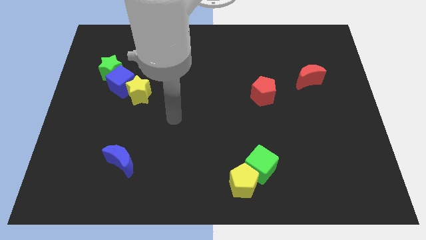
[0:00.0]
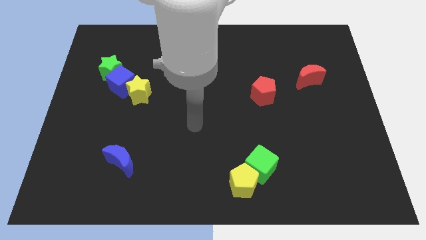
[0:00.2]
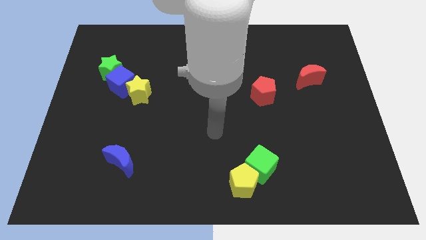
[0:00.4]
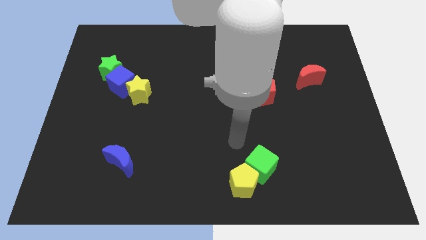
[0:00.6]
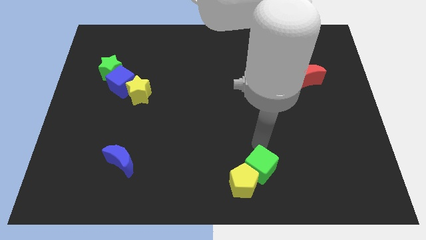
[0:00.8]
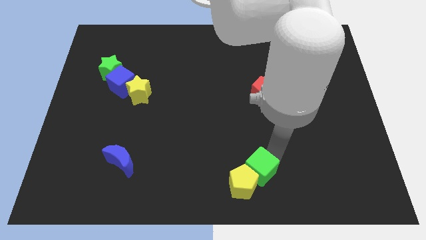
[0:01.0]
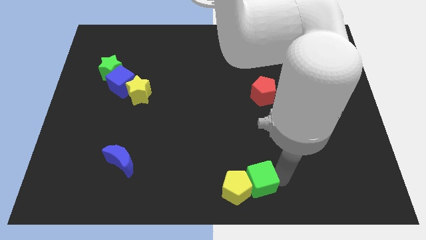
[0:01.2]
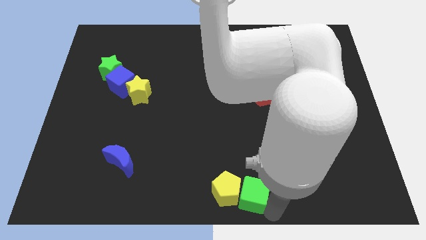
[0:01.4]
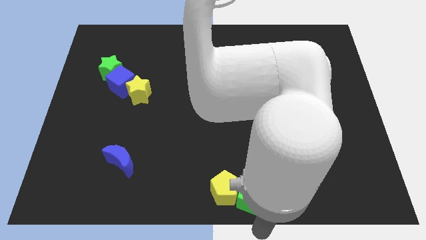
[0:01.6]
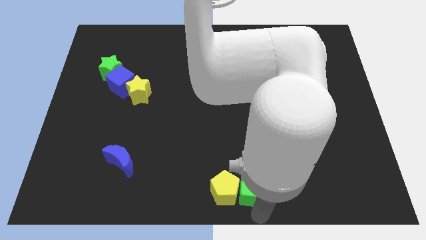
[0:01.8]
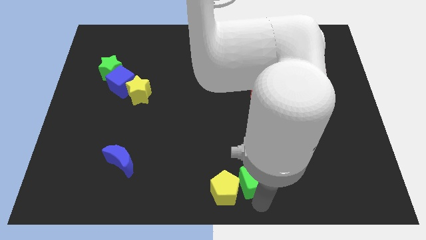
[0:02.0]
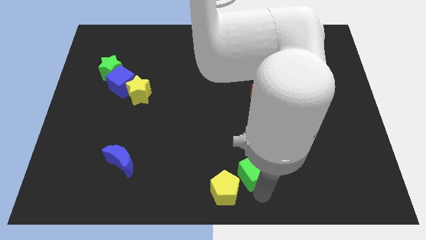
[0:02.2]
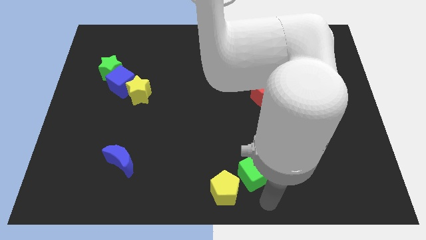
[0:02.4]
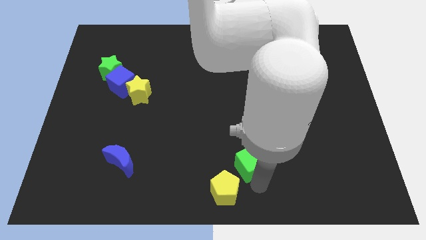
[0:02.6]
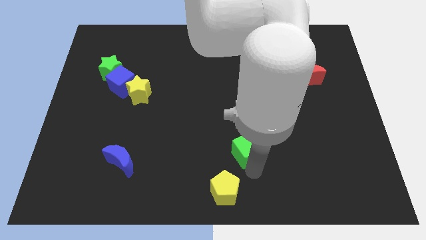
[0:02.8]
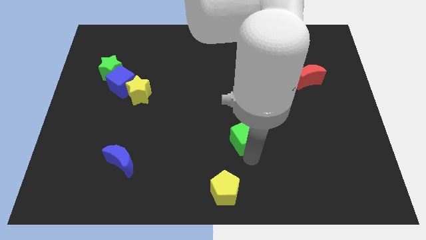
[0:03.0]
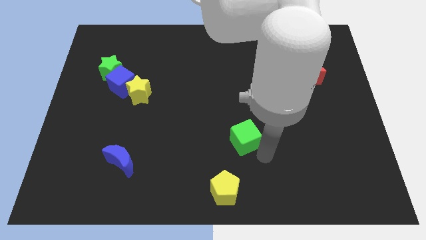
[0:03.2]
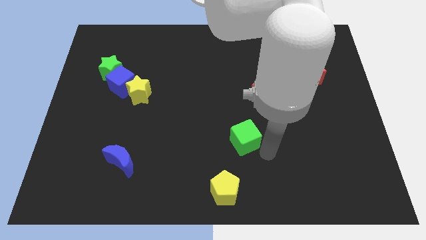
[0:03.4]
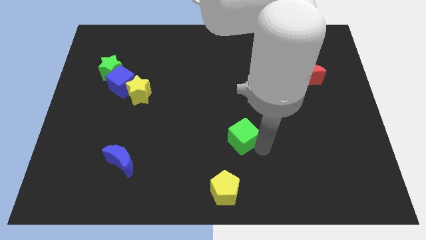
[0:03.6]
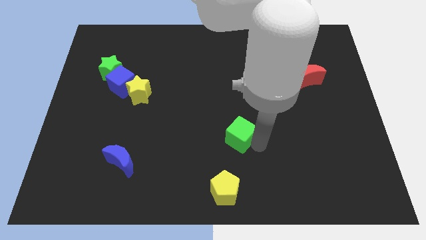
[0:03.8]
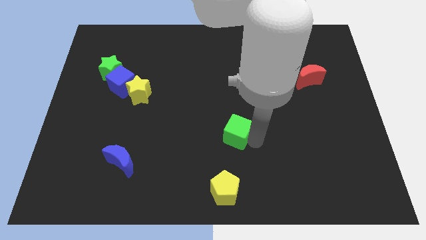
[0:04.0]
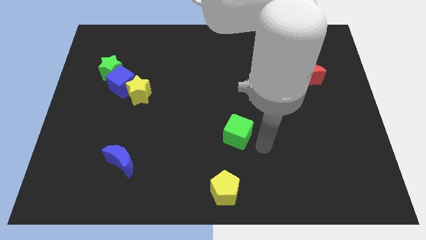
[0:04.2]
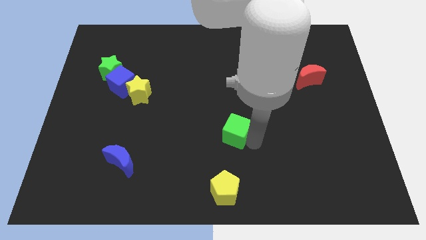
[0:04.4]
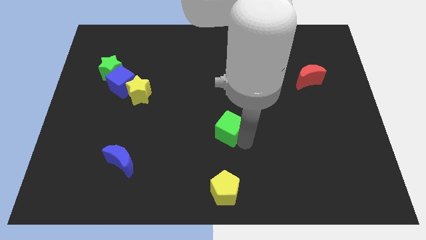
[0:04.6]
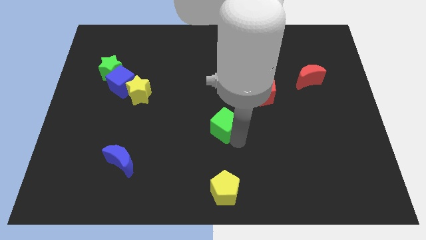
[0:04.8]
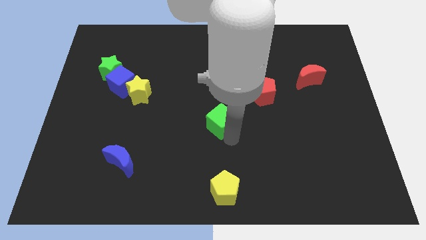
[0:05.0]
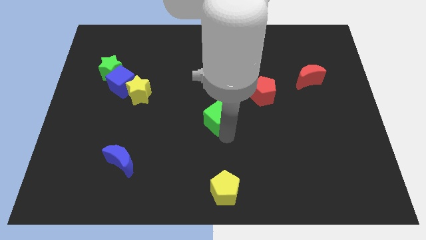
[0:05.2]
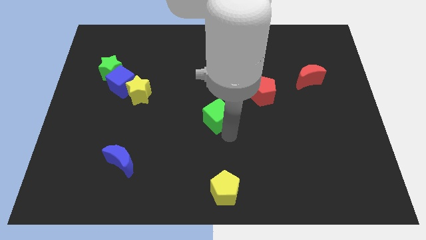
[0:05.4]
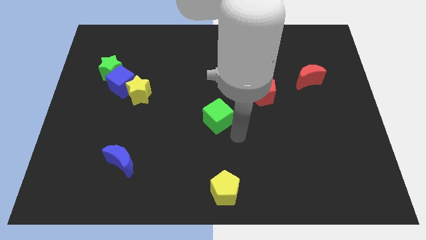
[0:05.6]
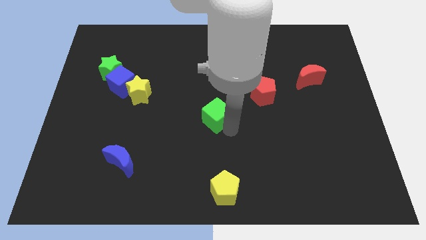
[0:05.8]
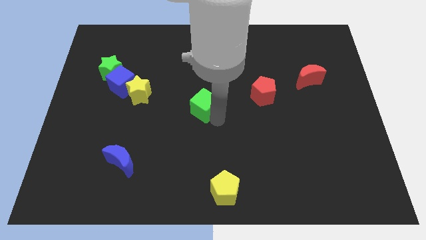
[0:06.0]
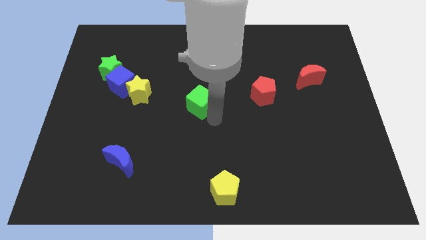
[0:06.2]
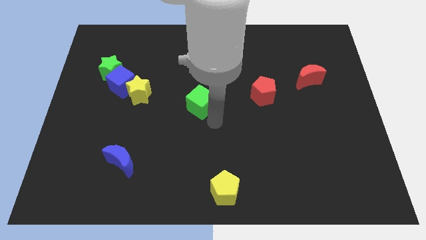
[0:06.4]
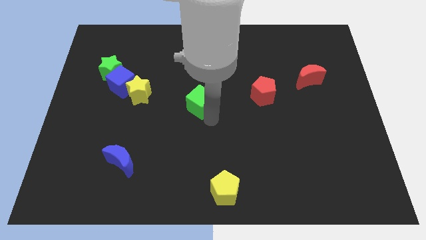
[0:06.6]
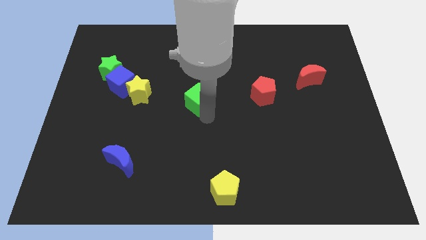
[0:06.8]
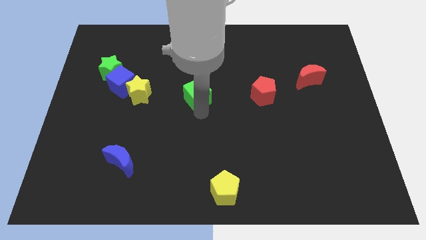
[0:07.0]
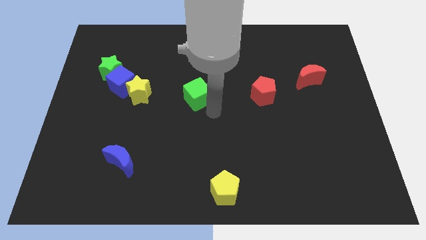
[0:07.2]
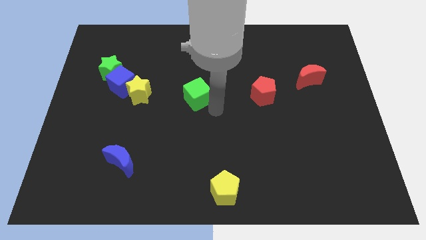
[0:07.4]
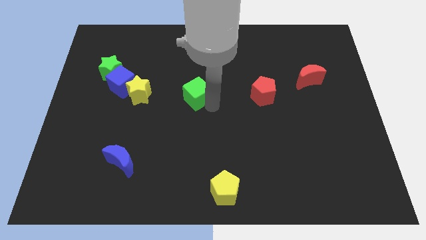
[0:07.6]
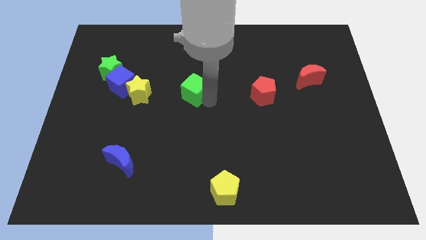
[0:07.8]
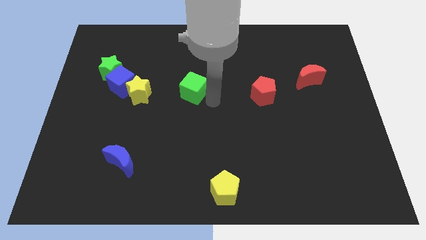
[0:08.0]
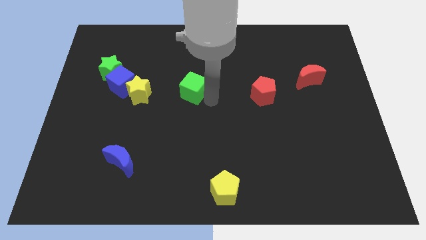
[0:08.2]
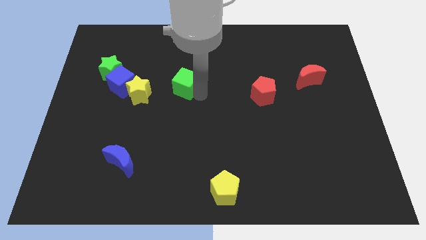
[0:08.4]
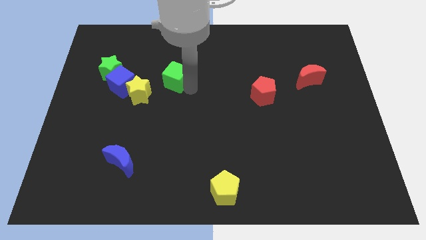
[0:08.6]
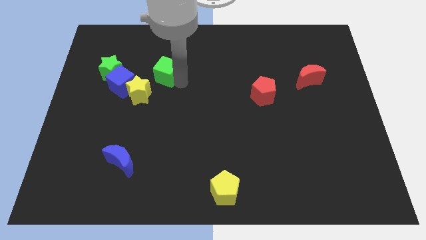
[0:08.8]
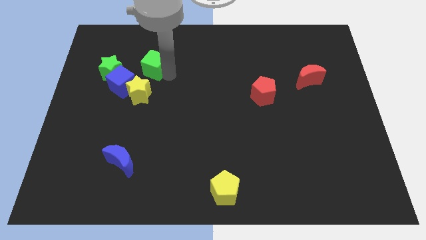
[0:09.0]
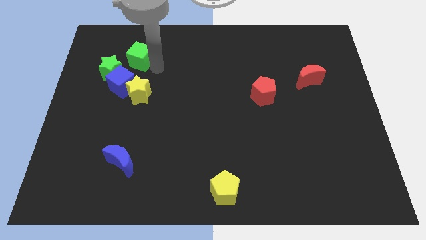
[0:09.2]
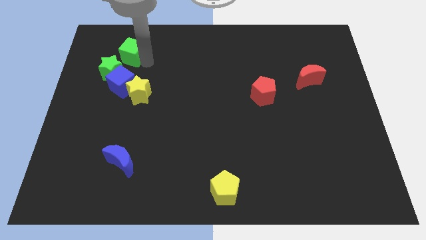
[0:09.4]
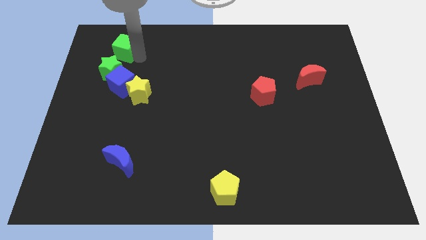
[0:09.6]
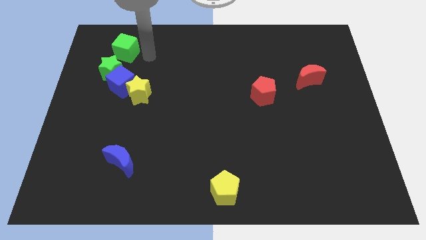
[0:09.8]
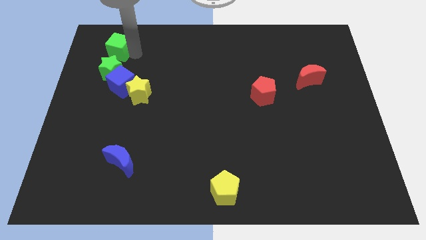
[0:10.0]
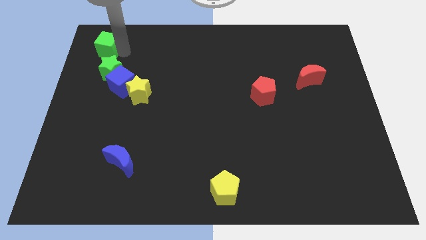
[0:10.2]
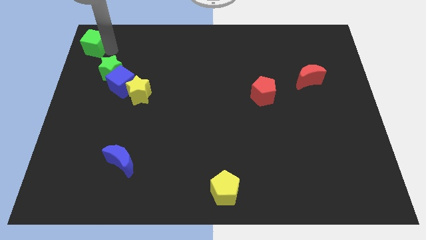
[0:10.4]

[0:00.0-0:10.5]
move the green cube to the top left

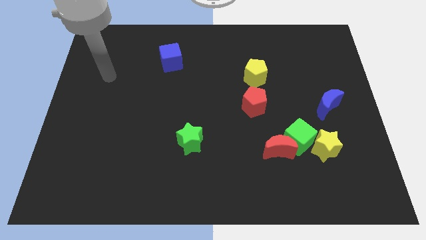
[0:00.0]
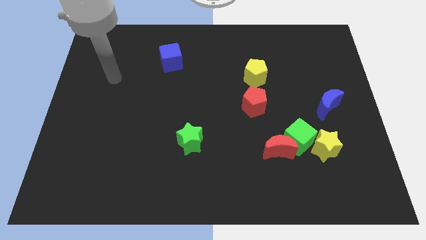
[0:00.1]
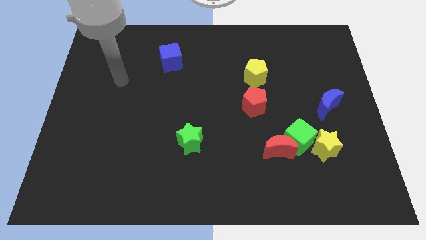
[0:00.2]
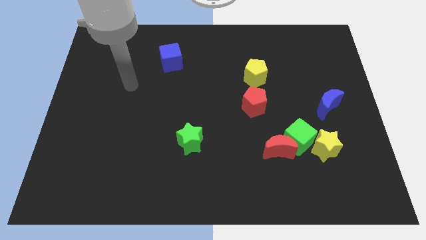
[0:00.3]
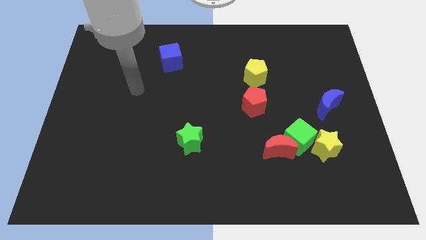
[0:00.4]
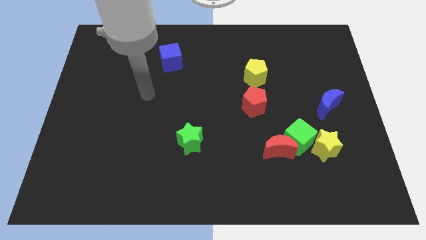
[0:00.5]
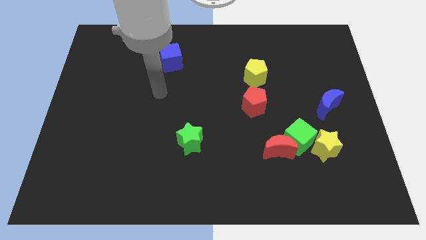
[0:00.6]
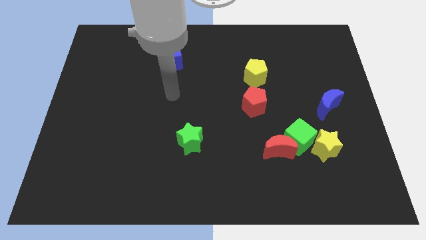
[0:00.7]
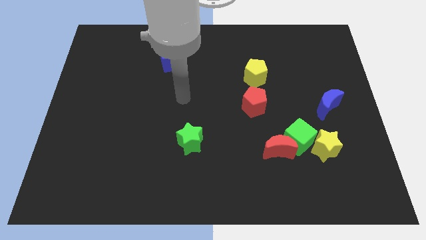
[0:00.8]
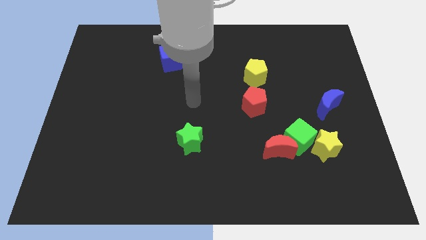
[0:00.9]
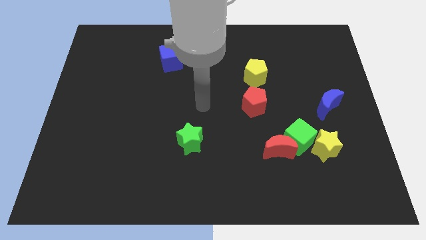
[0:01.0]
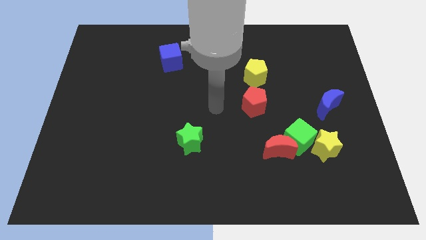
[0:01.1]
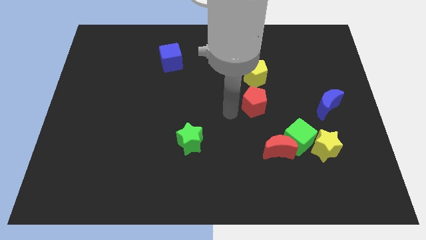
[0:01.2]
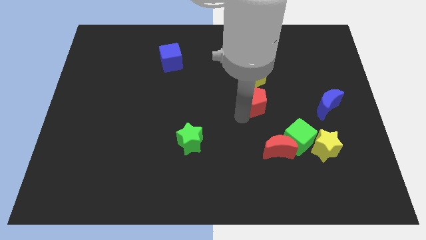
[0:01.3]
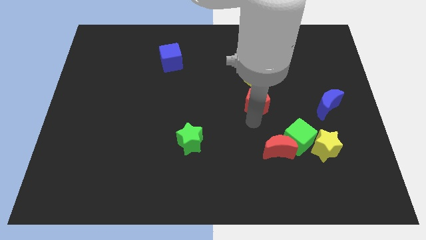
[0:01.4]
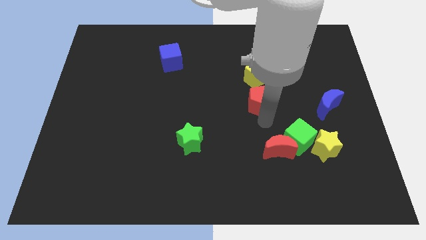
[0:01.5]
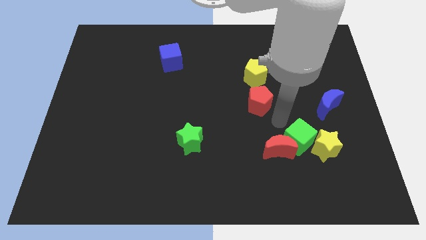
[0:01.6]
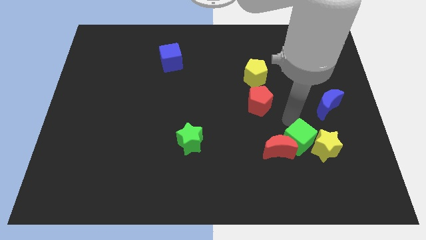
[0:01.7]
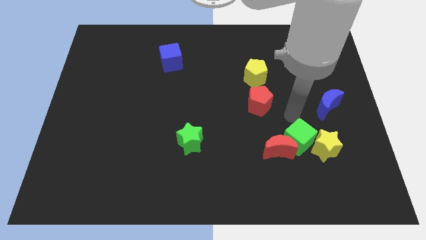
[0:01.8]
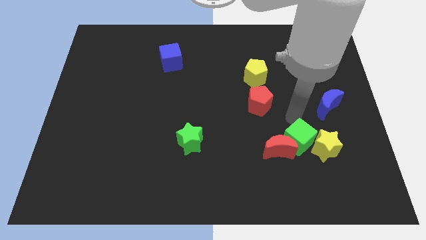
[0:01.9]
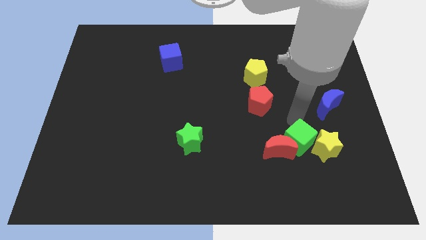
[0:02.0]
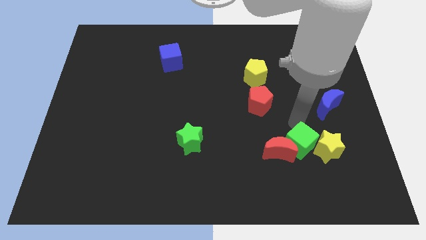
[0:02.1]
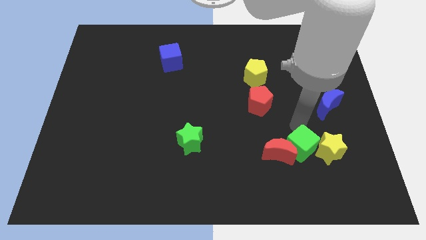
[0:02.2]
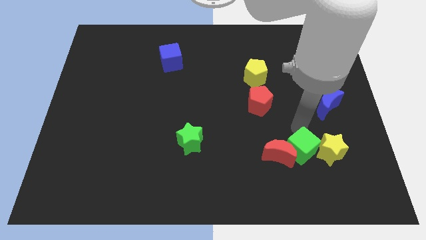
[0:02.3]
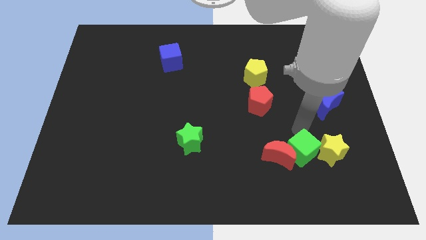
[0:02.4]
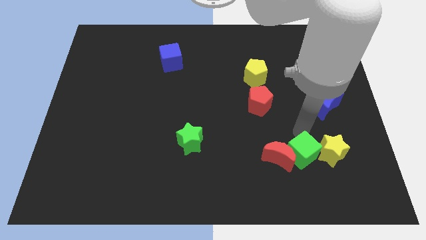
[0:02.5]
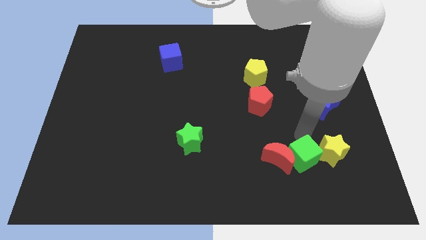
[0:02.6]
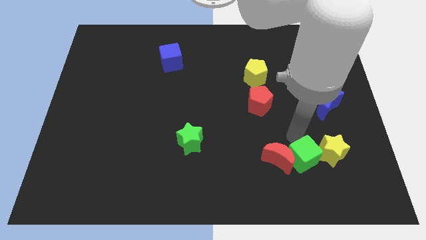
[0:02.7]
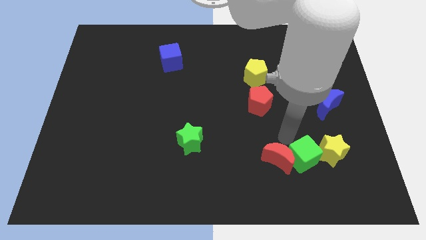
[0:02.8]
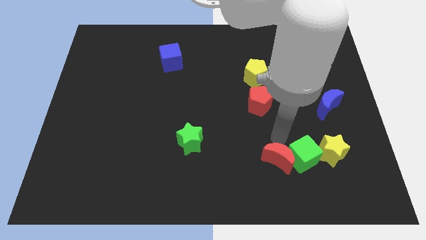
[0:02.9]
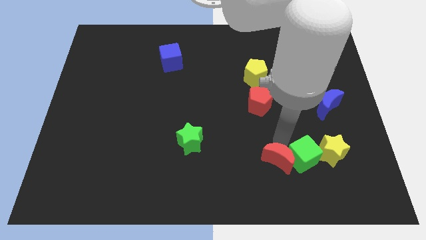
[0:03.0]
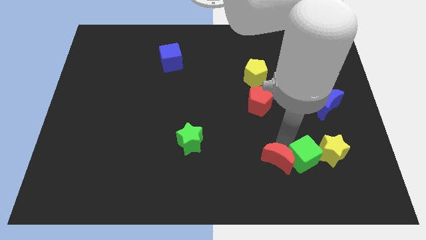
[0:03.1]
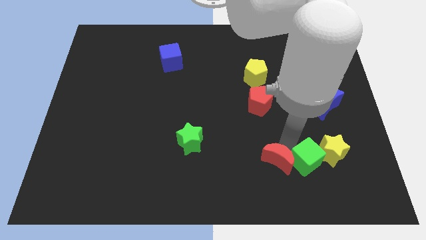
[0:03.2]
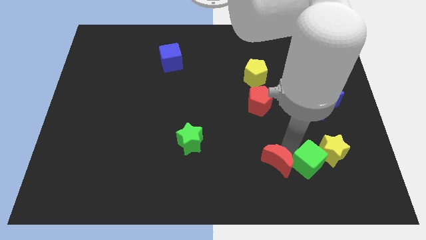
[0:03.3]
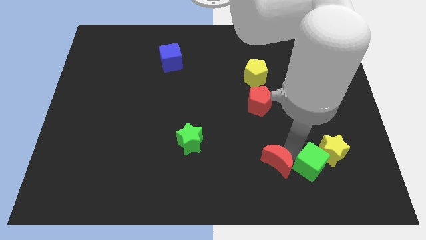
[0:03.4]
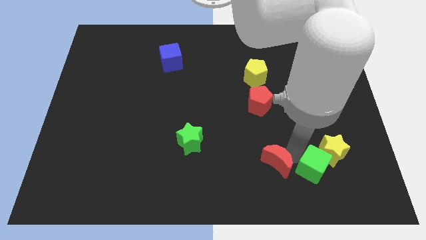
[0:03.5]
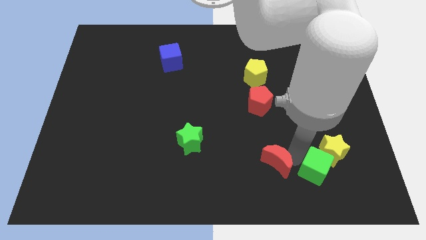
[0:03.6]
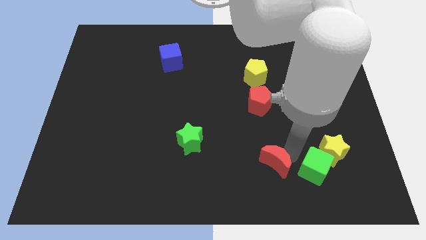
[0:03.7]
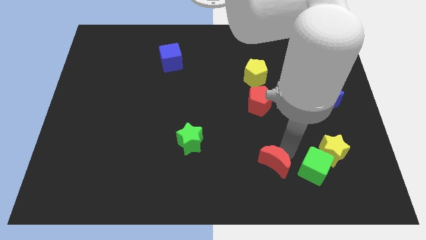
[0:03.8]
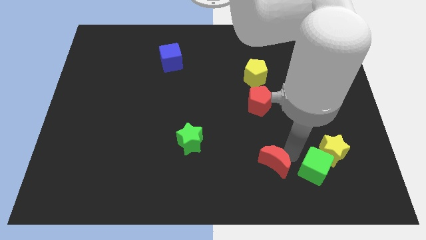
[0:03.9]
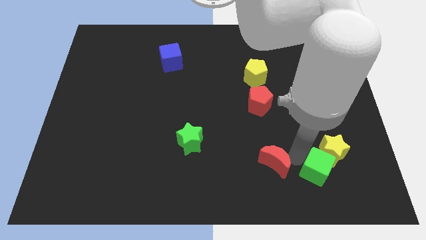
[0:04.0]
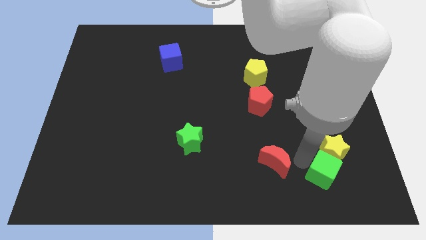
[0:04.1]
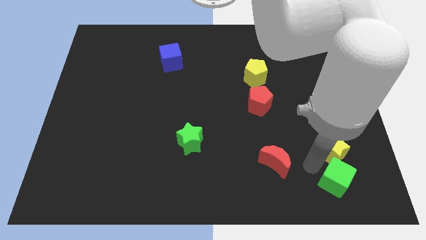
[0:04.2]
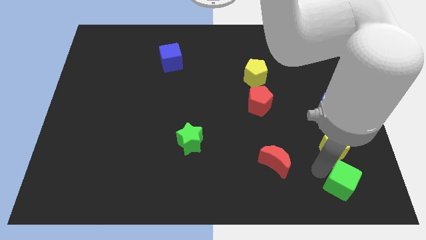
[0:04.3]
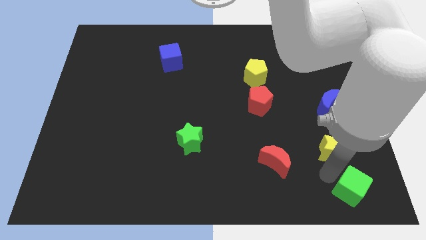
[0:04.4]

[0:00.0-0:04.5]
slide the green cube to the bottom right
